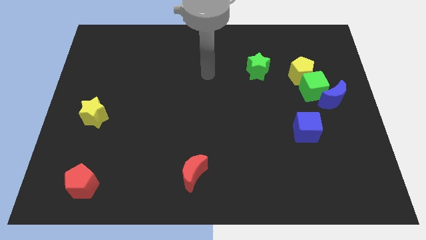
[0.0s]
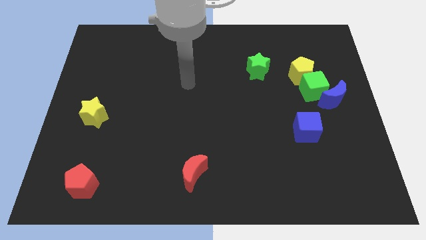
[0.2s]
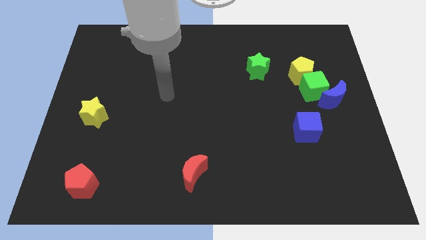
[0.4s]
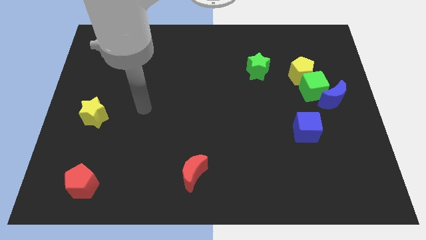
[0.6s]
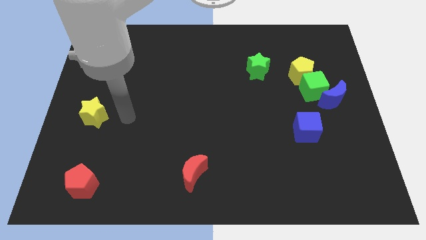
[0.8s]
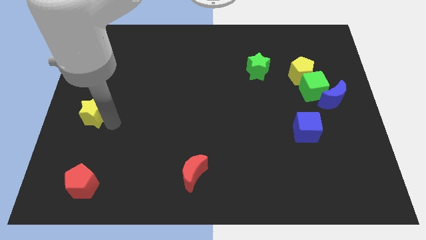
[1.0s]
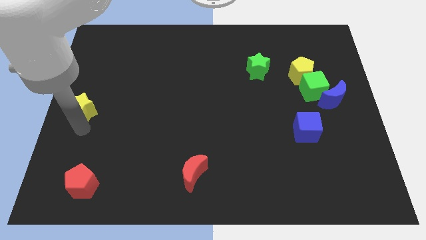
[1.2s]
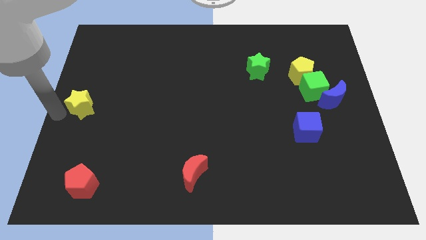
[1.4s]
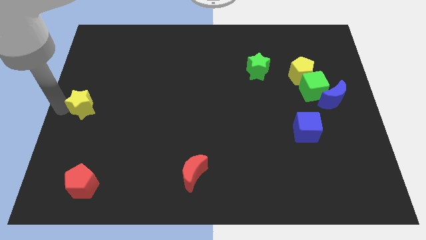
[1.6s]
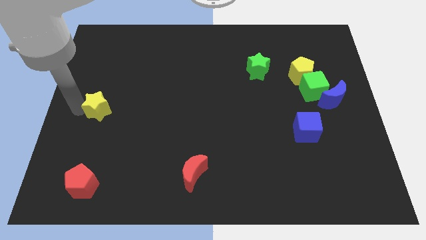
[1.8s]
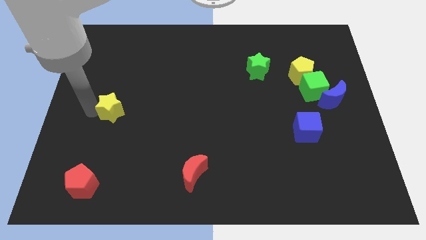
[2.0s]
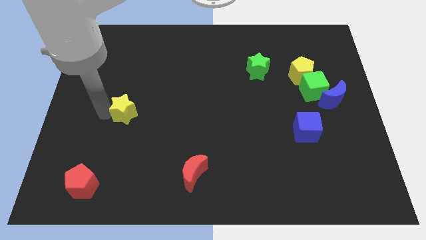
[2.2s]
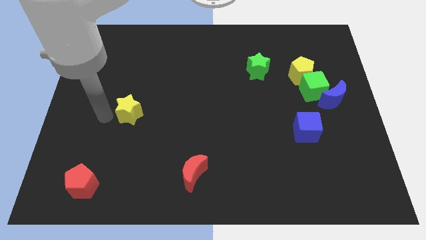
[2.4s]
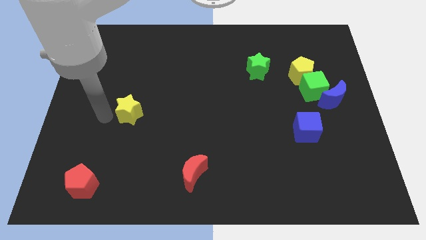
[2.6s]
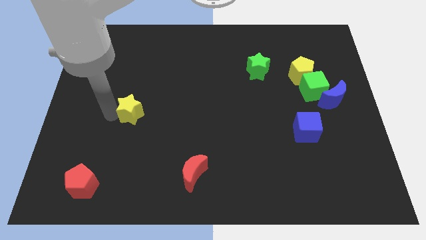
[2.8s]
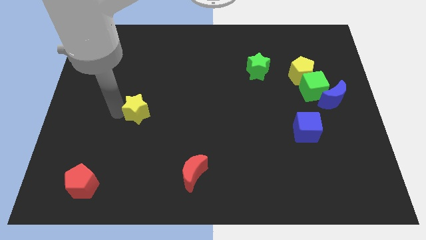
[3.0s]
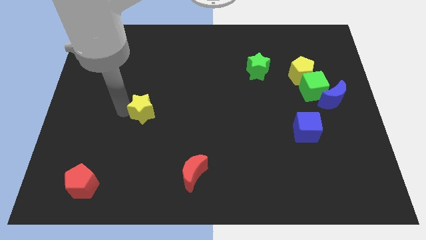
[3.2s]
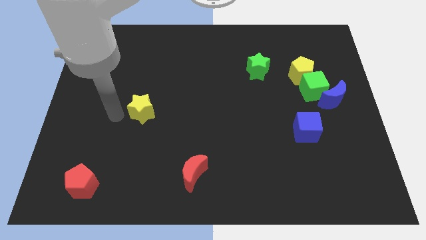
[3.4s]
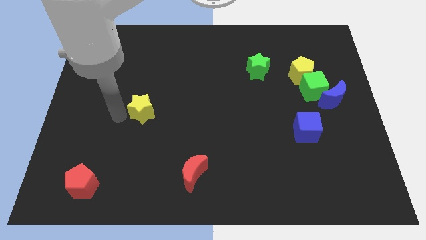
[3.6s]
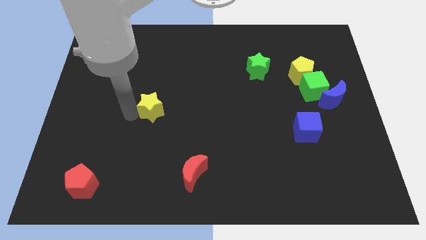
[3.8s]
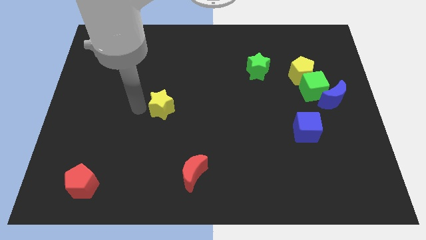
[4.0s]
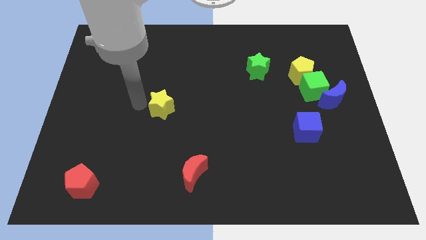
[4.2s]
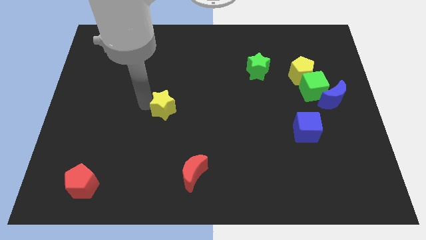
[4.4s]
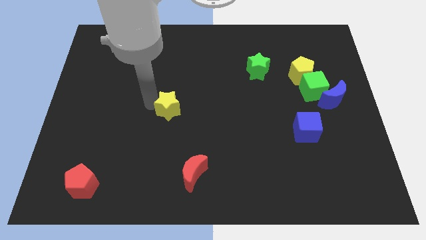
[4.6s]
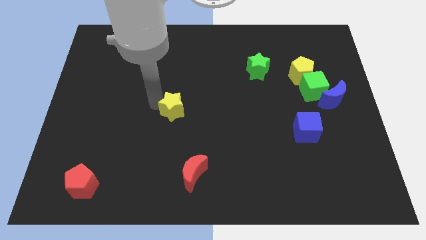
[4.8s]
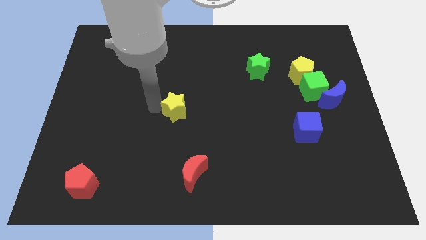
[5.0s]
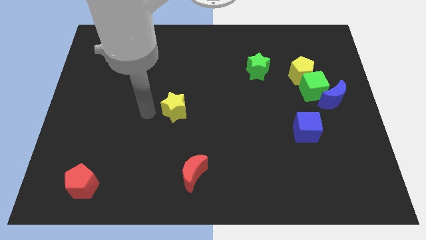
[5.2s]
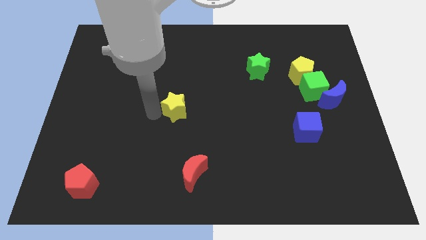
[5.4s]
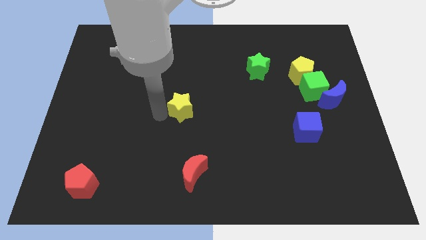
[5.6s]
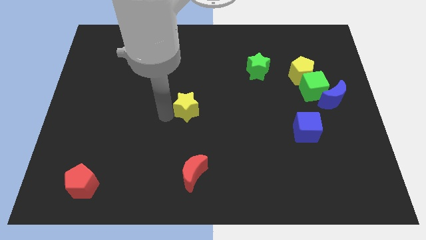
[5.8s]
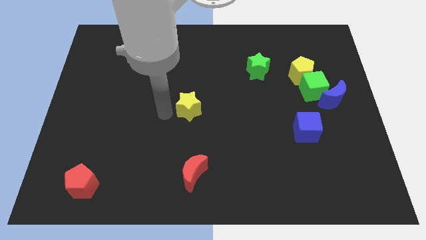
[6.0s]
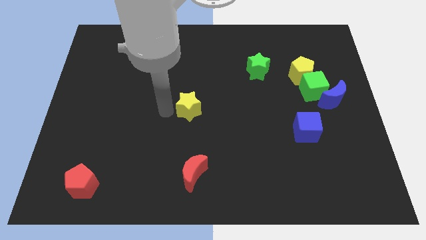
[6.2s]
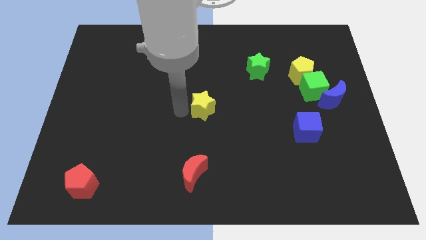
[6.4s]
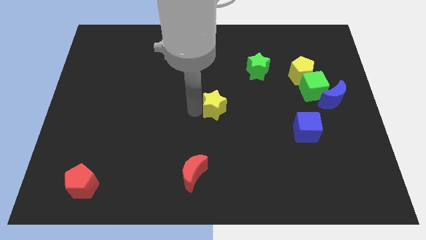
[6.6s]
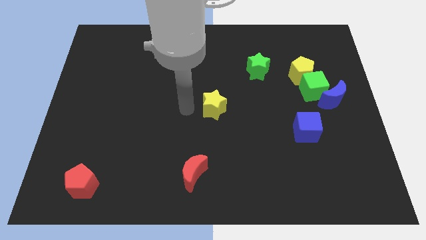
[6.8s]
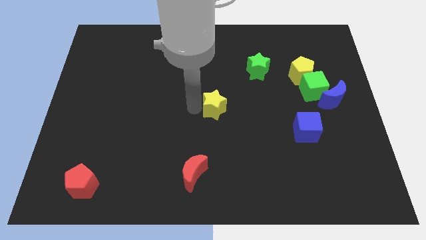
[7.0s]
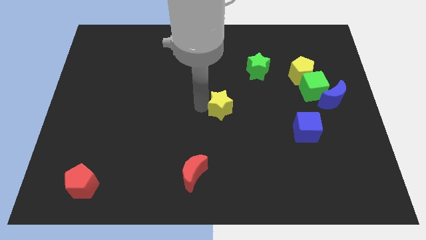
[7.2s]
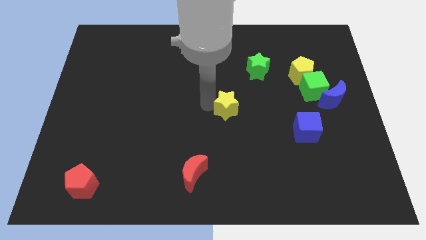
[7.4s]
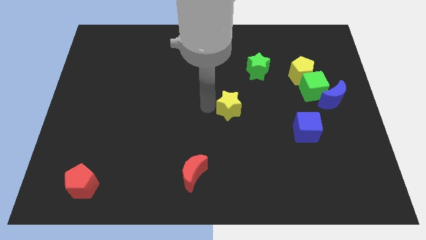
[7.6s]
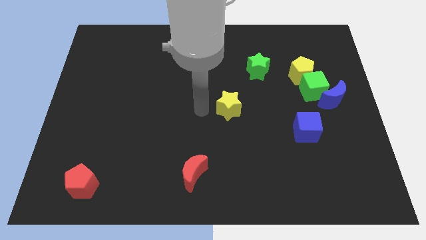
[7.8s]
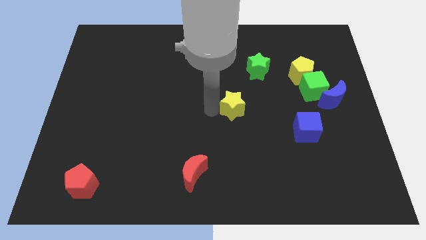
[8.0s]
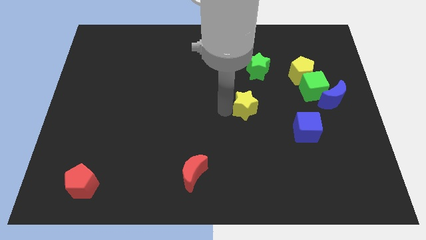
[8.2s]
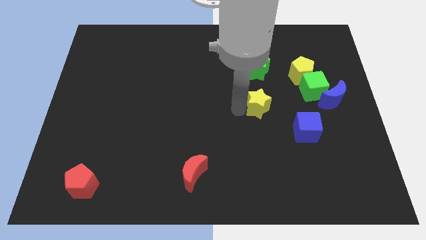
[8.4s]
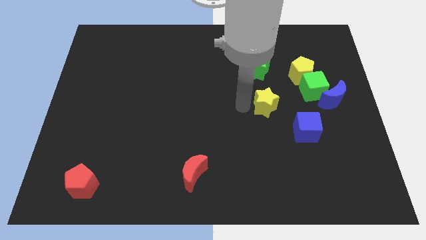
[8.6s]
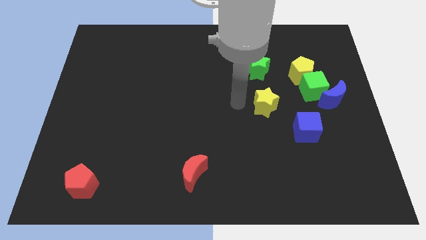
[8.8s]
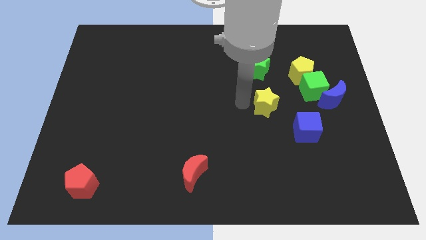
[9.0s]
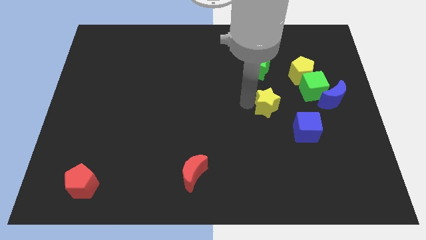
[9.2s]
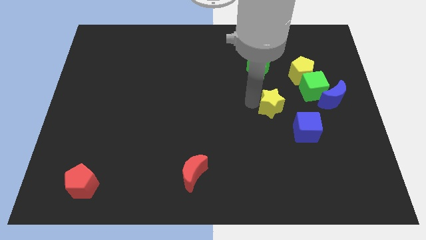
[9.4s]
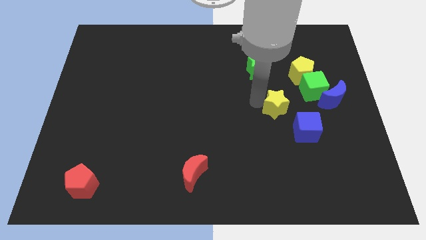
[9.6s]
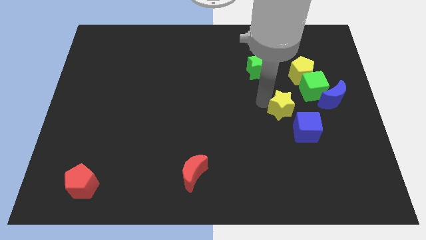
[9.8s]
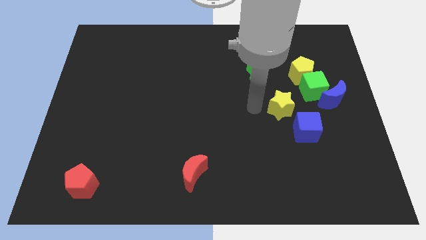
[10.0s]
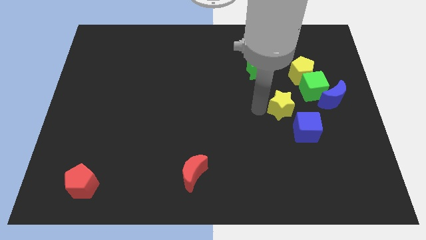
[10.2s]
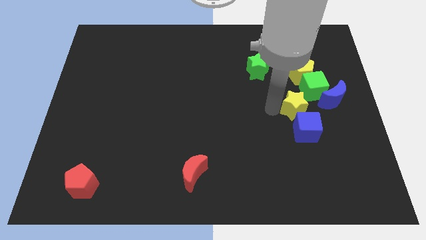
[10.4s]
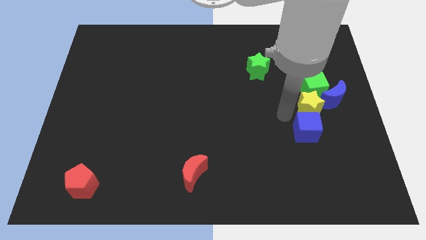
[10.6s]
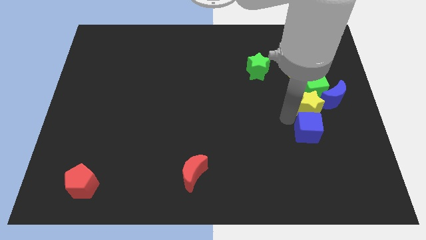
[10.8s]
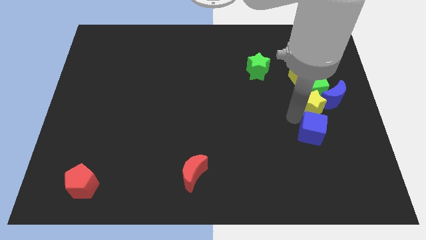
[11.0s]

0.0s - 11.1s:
push the yellow star towards the blue moon

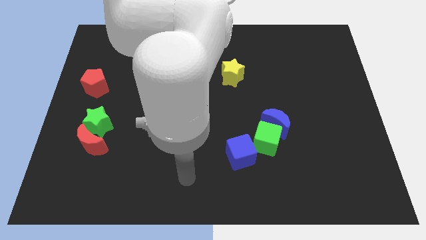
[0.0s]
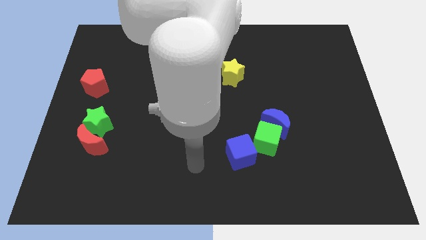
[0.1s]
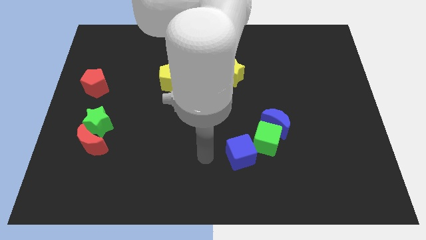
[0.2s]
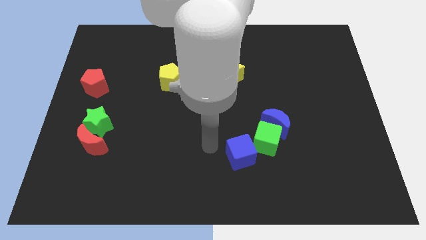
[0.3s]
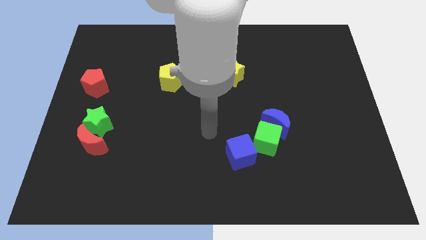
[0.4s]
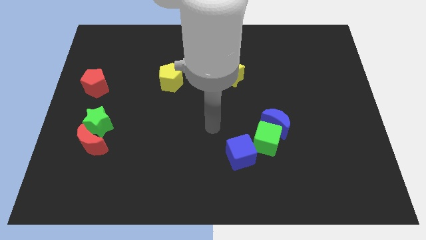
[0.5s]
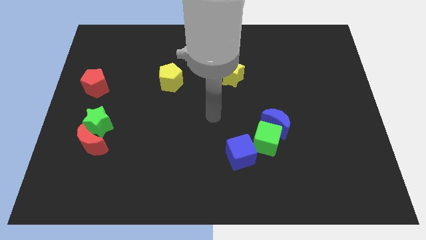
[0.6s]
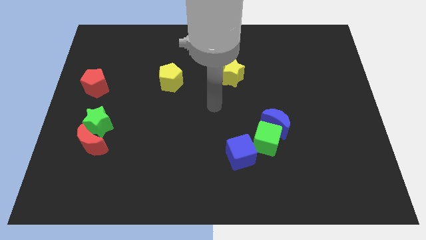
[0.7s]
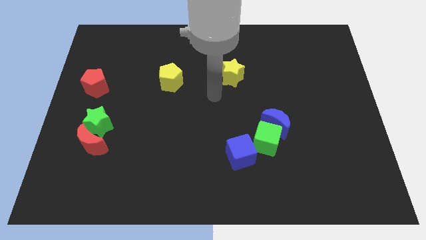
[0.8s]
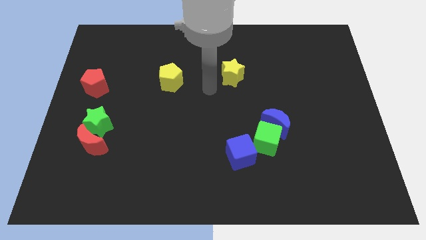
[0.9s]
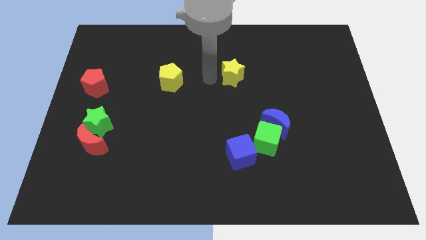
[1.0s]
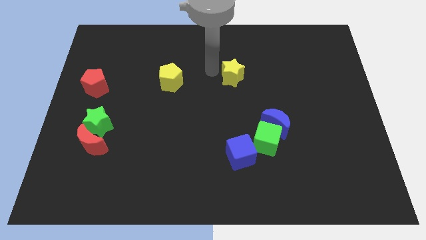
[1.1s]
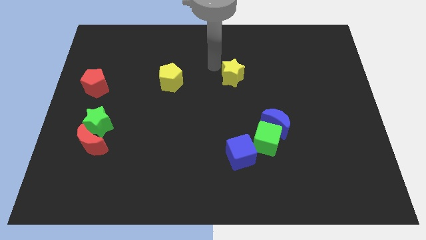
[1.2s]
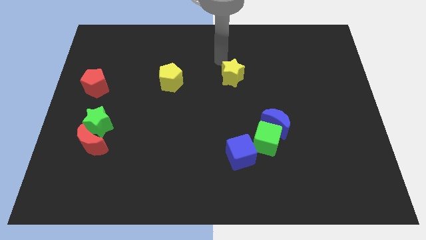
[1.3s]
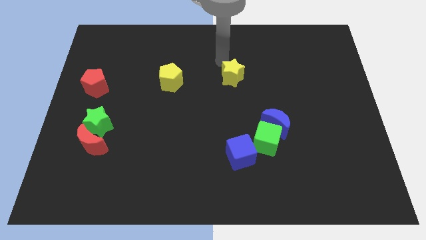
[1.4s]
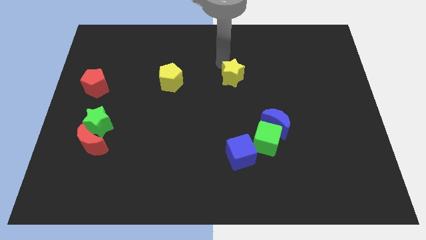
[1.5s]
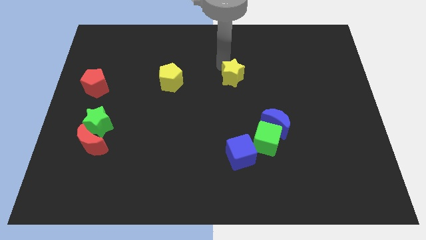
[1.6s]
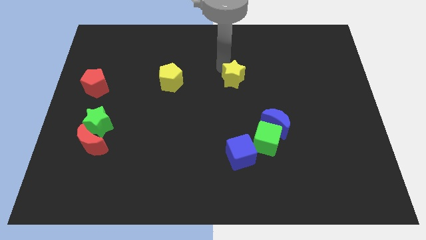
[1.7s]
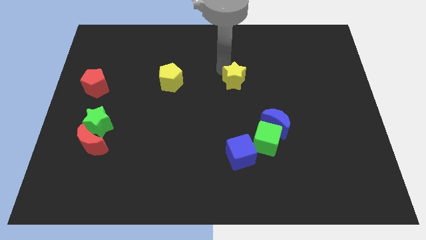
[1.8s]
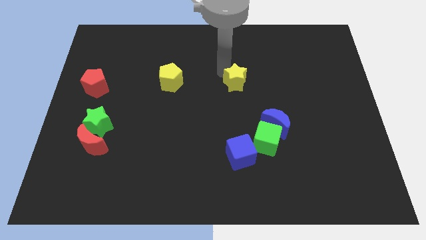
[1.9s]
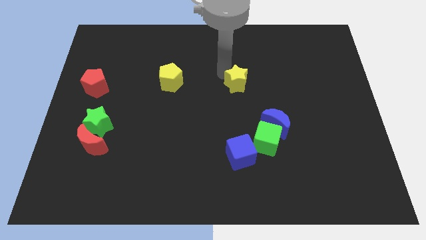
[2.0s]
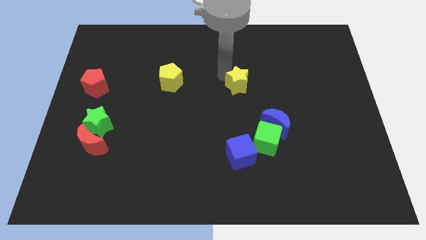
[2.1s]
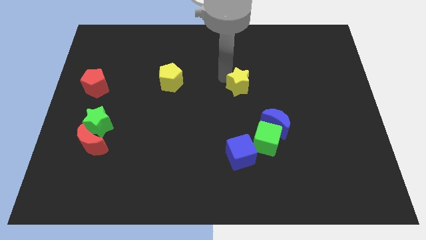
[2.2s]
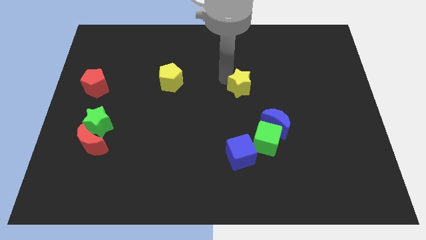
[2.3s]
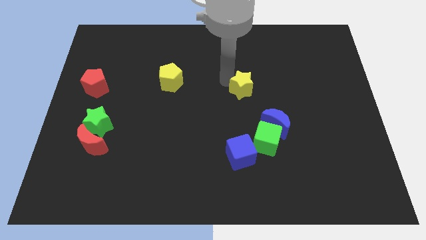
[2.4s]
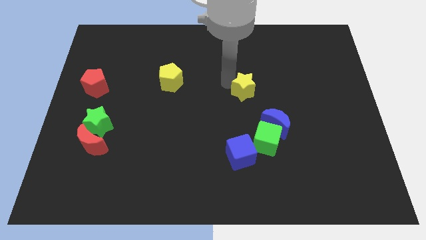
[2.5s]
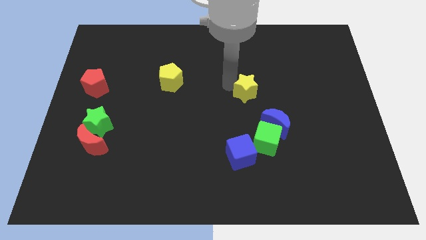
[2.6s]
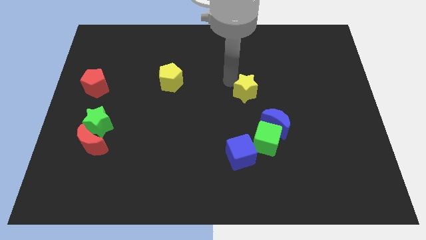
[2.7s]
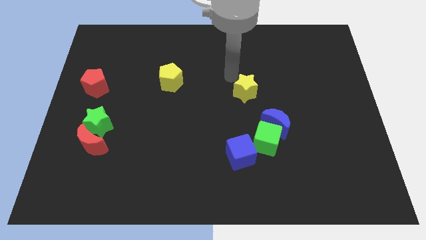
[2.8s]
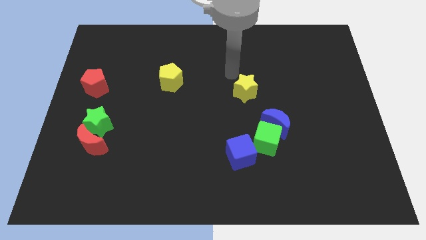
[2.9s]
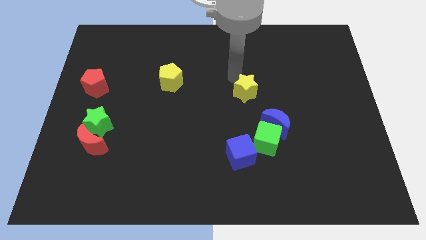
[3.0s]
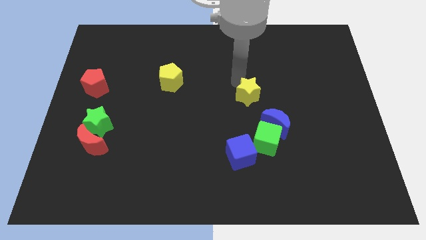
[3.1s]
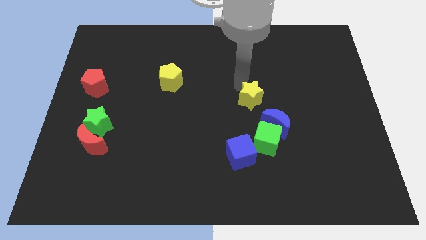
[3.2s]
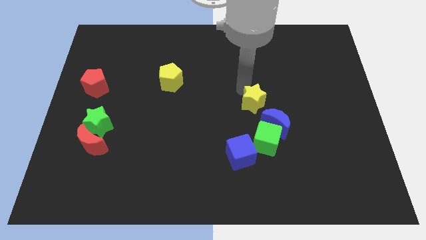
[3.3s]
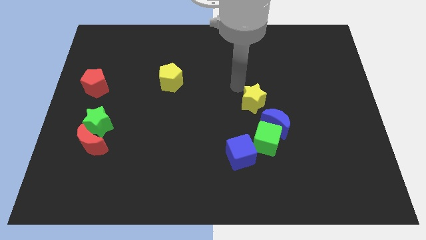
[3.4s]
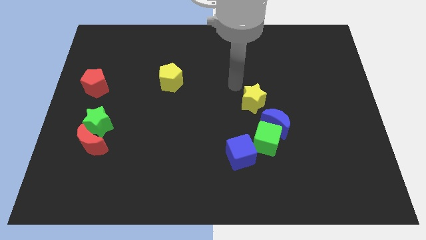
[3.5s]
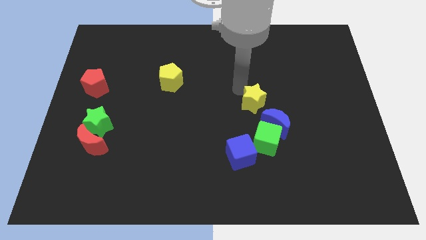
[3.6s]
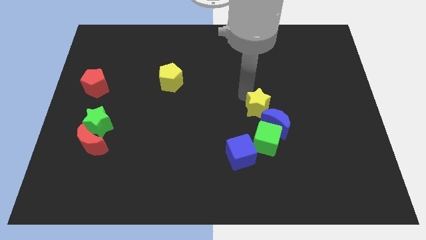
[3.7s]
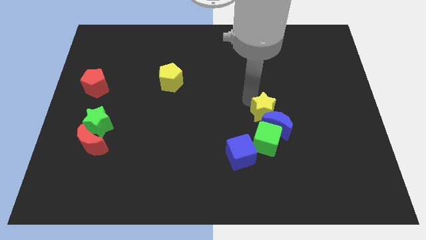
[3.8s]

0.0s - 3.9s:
slide the yellow star towards the blue moon
